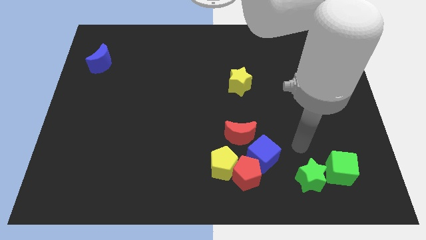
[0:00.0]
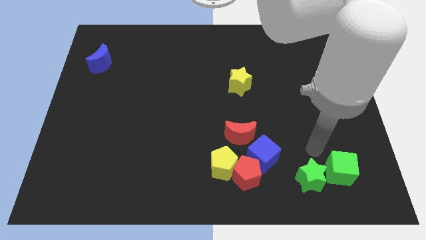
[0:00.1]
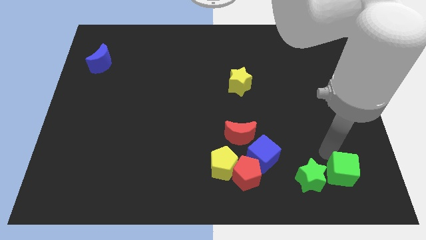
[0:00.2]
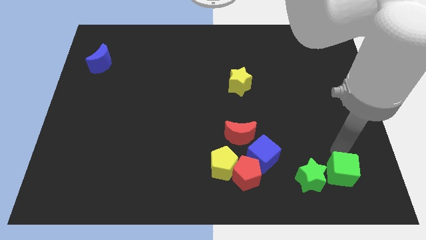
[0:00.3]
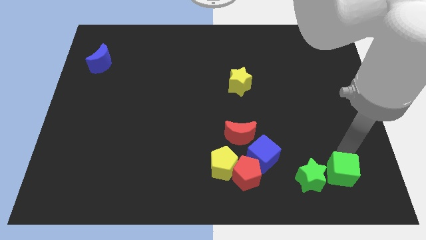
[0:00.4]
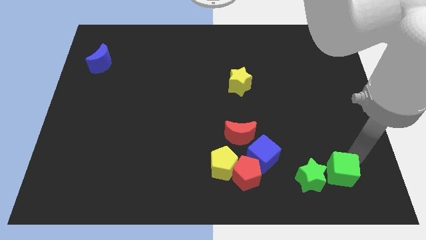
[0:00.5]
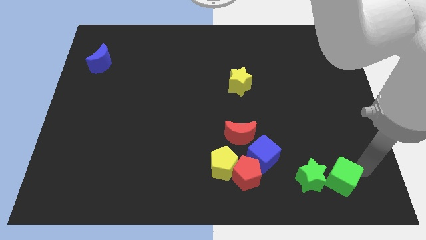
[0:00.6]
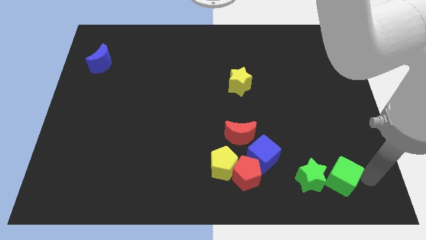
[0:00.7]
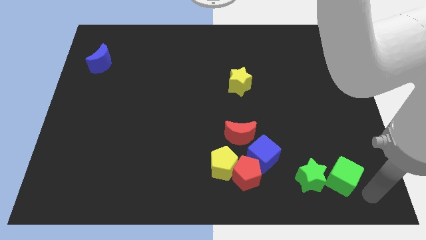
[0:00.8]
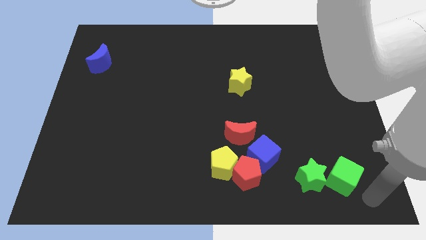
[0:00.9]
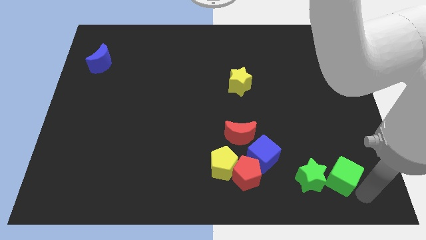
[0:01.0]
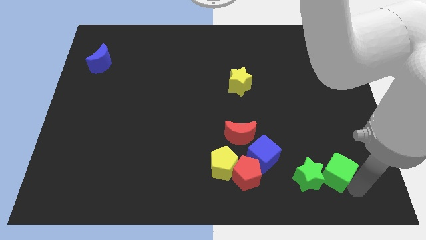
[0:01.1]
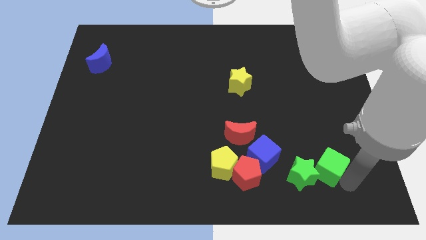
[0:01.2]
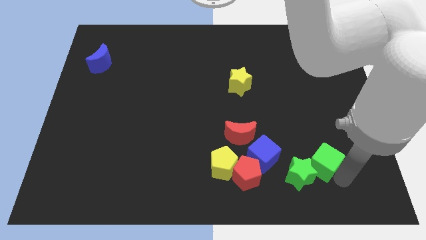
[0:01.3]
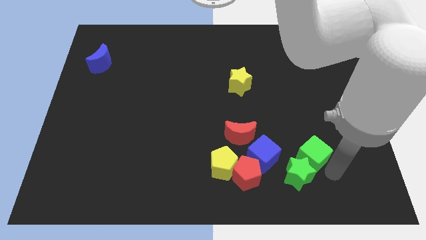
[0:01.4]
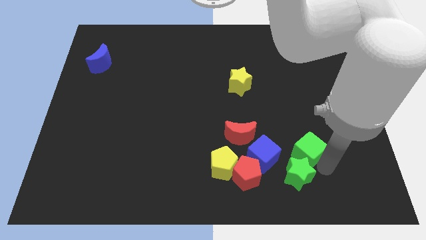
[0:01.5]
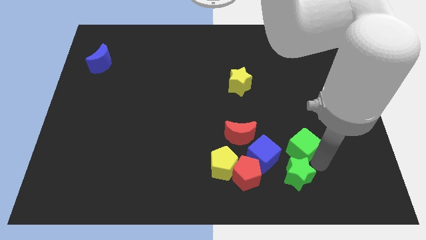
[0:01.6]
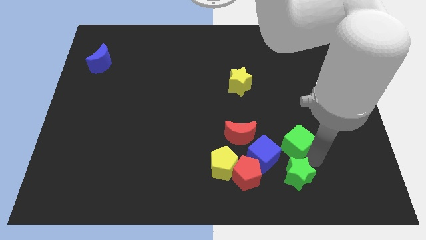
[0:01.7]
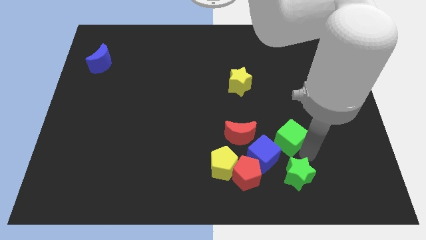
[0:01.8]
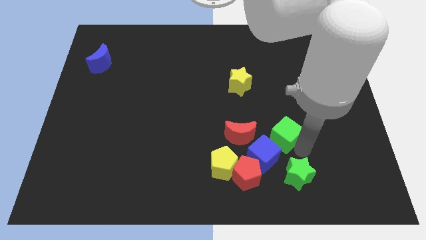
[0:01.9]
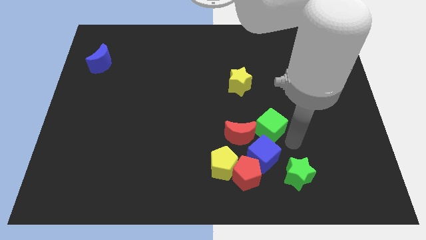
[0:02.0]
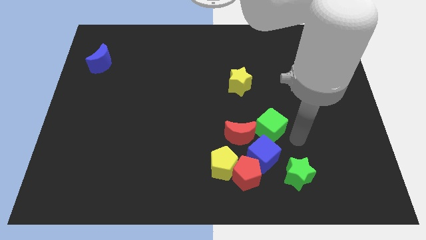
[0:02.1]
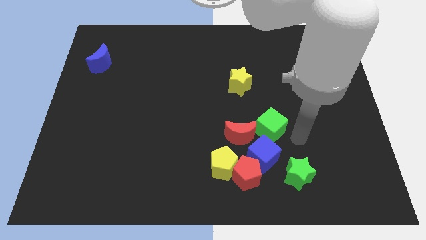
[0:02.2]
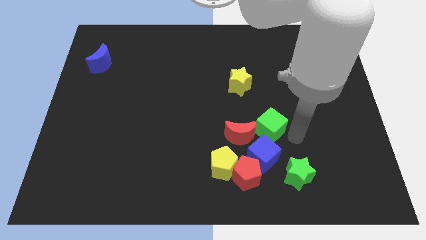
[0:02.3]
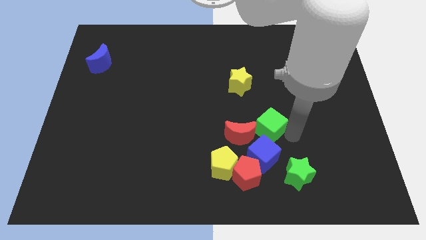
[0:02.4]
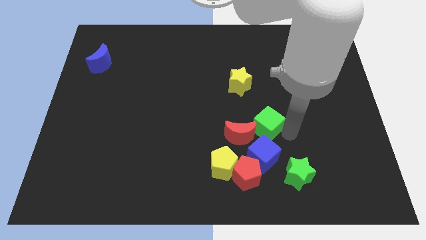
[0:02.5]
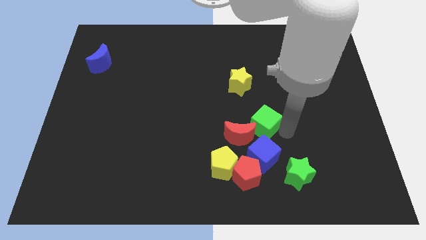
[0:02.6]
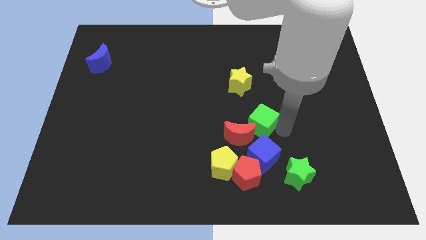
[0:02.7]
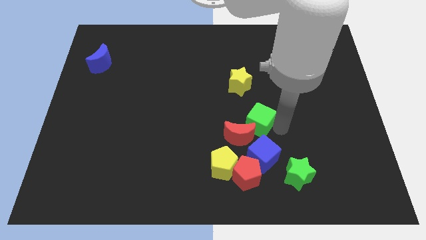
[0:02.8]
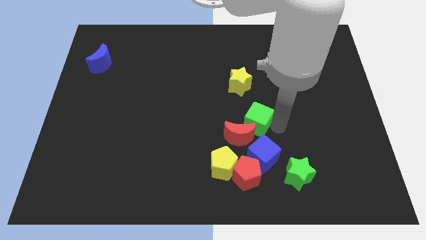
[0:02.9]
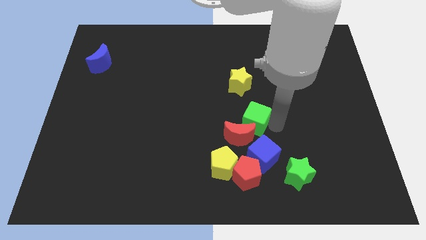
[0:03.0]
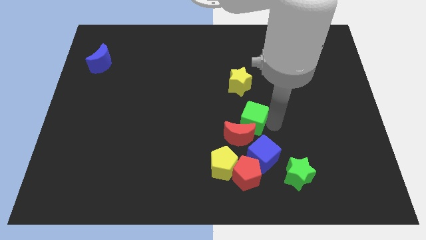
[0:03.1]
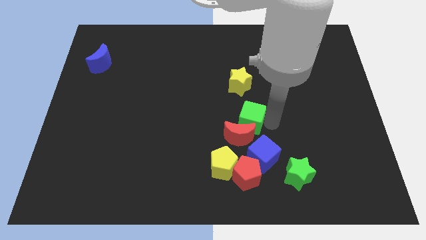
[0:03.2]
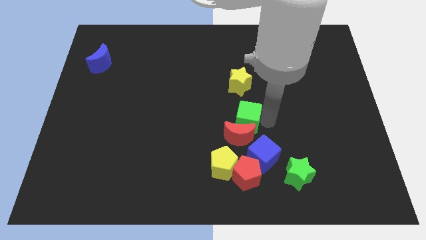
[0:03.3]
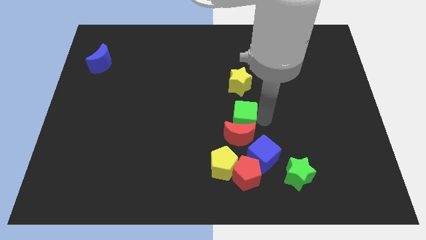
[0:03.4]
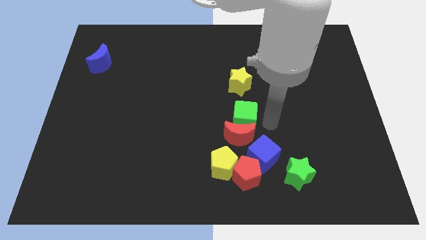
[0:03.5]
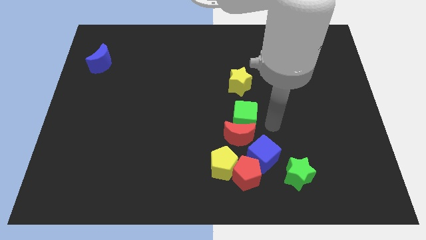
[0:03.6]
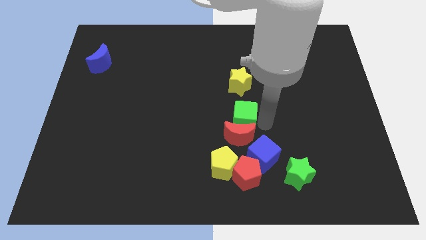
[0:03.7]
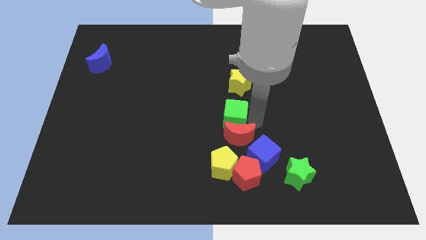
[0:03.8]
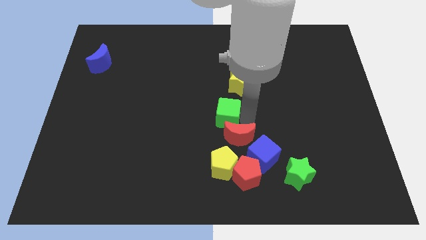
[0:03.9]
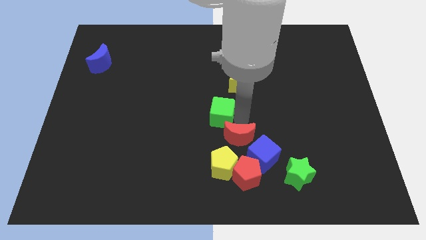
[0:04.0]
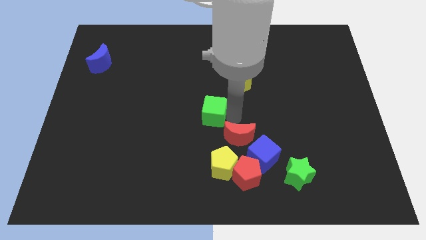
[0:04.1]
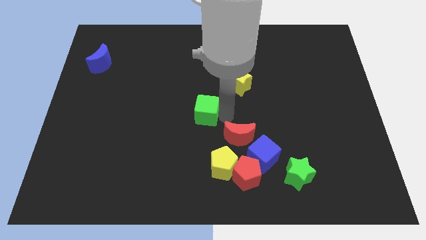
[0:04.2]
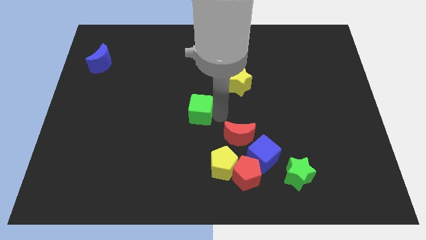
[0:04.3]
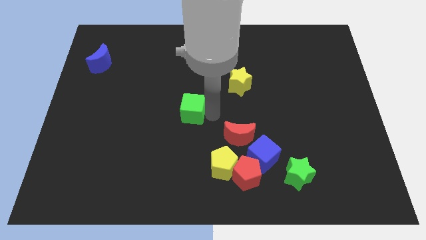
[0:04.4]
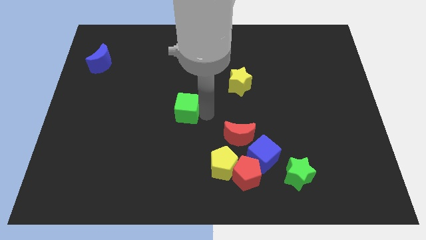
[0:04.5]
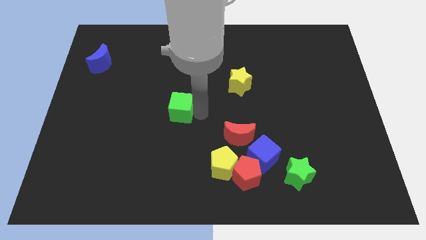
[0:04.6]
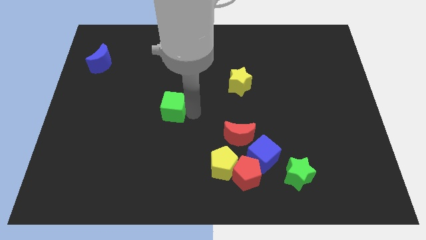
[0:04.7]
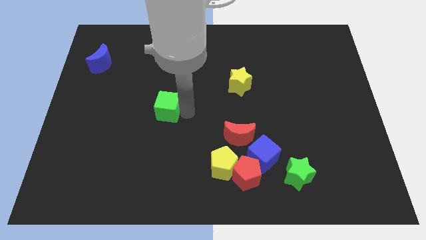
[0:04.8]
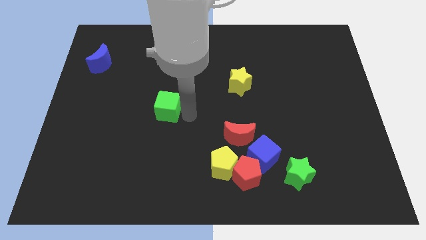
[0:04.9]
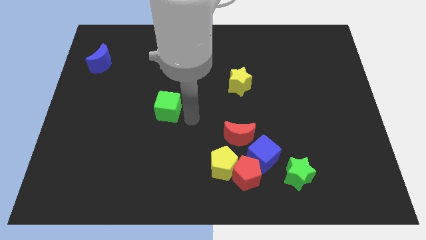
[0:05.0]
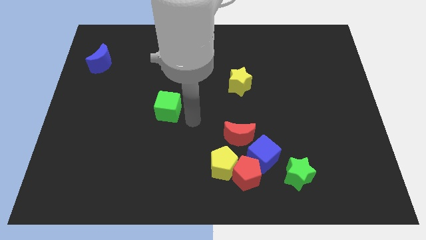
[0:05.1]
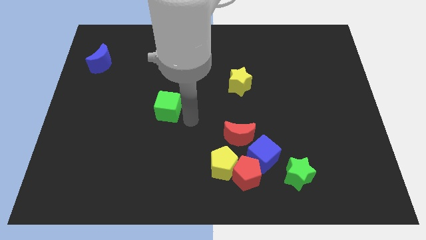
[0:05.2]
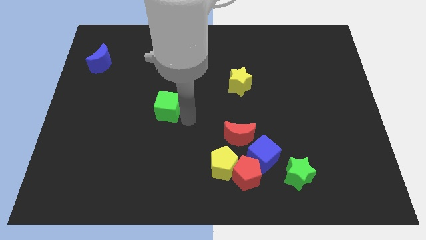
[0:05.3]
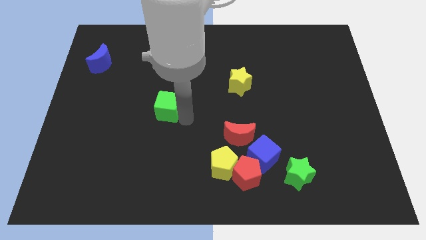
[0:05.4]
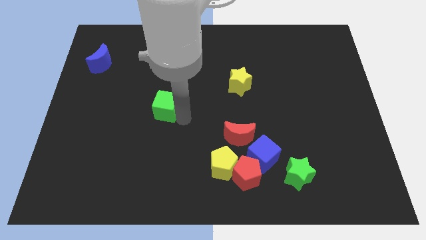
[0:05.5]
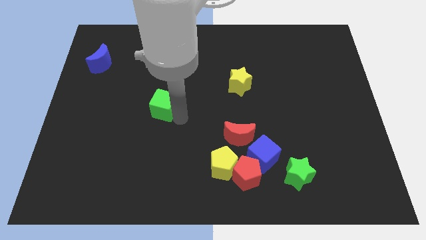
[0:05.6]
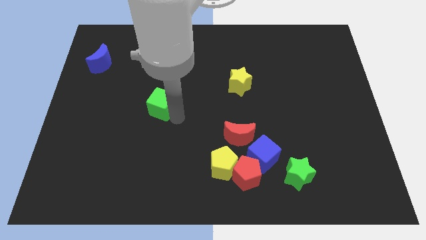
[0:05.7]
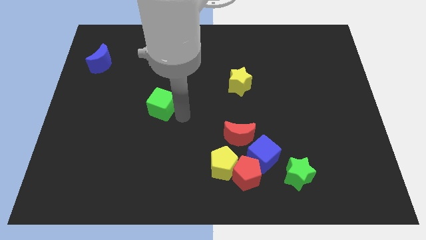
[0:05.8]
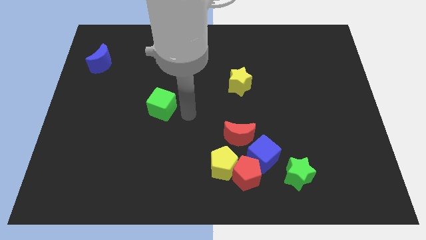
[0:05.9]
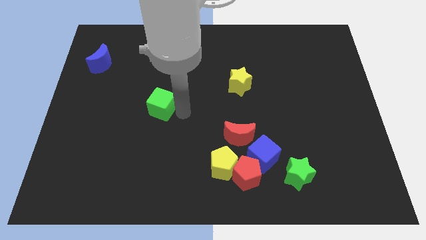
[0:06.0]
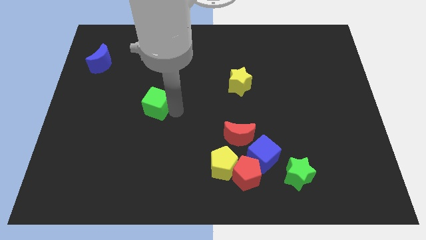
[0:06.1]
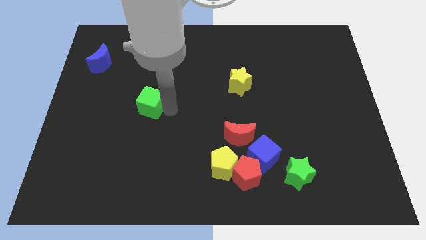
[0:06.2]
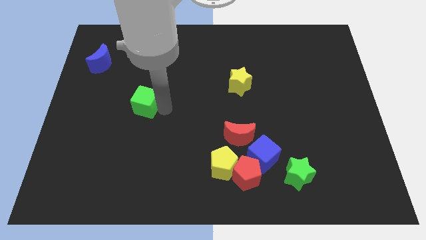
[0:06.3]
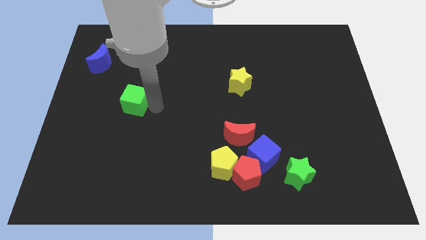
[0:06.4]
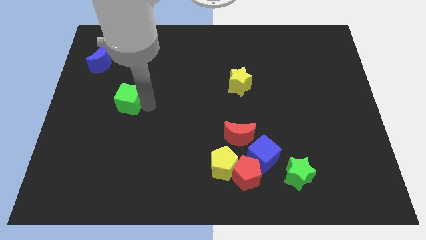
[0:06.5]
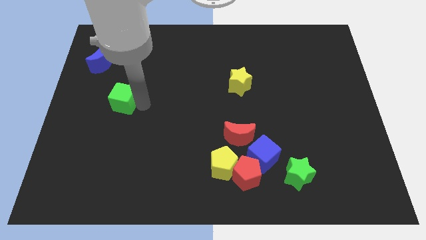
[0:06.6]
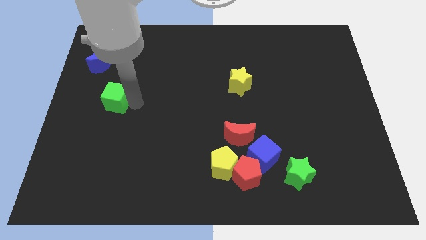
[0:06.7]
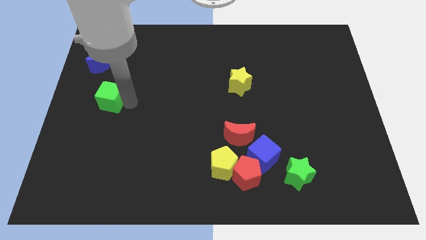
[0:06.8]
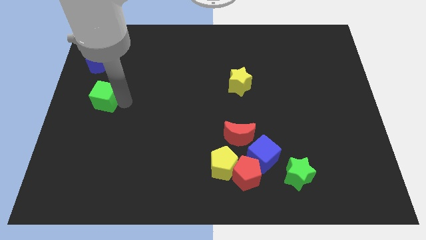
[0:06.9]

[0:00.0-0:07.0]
push the green cube to the center left
